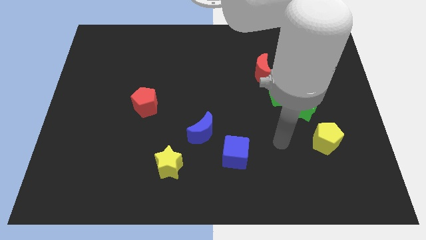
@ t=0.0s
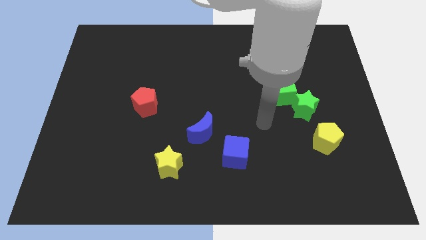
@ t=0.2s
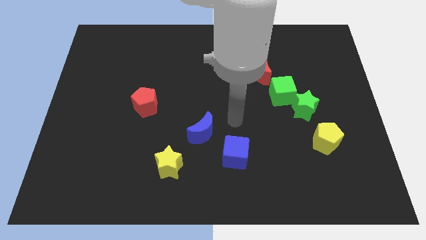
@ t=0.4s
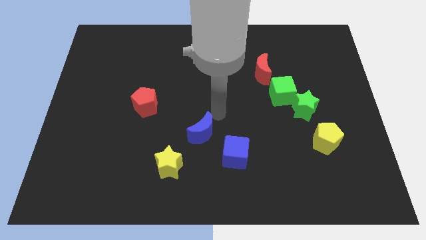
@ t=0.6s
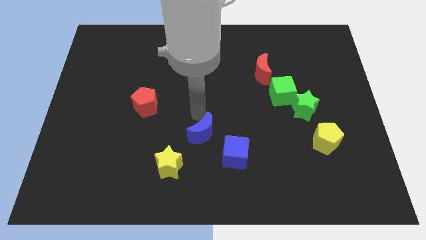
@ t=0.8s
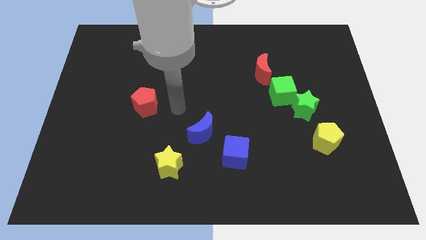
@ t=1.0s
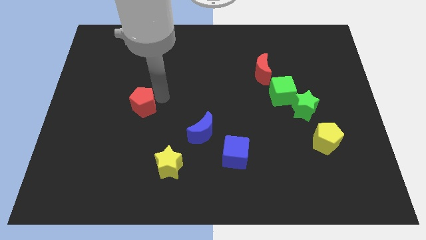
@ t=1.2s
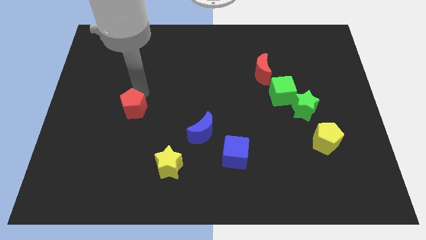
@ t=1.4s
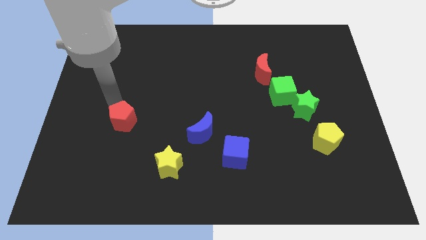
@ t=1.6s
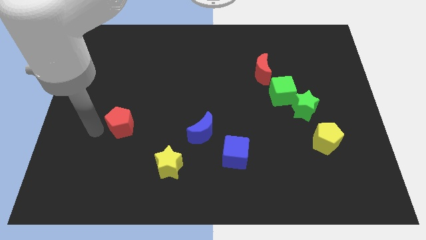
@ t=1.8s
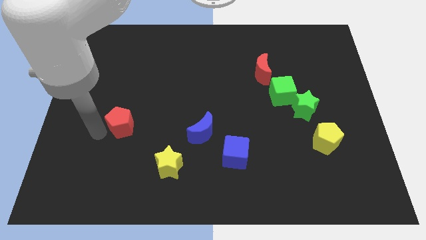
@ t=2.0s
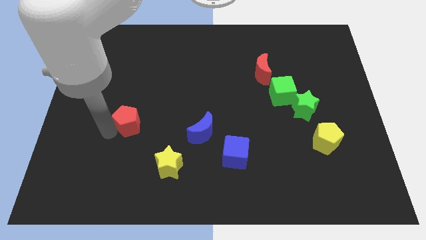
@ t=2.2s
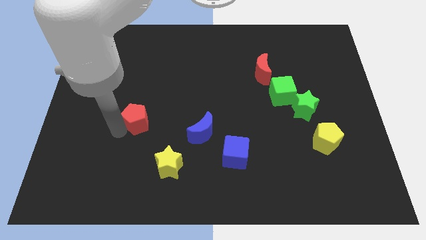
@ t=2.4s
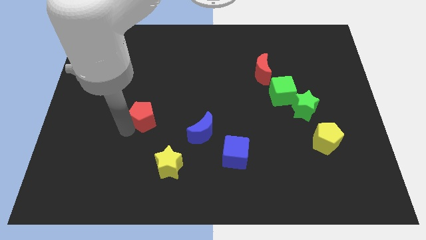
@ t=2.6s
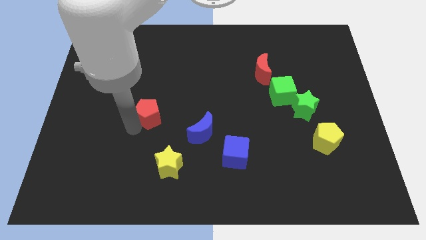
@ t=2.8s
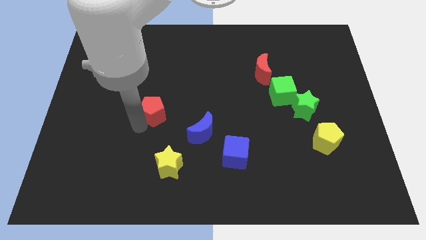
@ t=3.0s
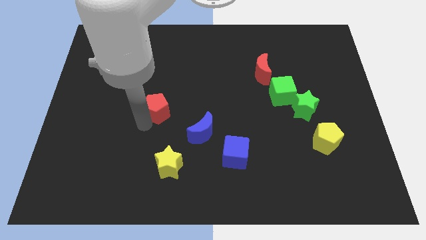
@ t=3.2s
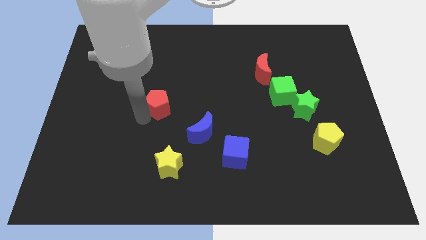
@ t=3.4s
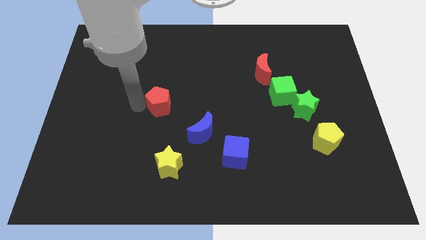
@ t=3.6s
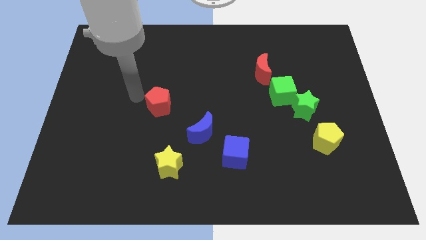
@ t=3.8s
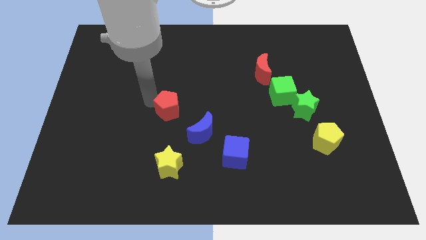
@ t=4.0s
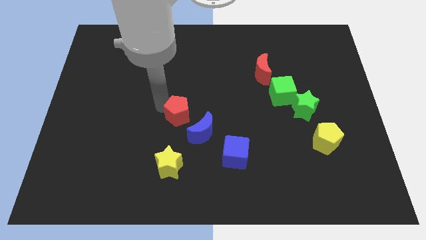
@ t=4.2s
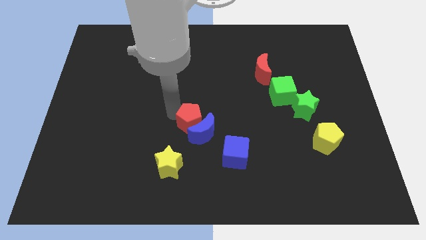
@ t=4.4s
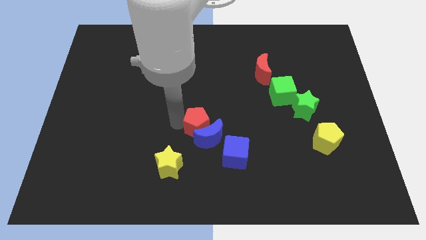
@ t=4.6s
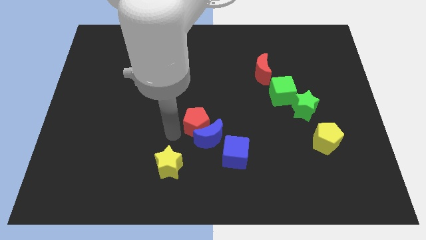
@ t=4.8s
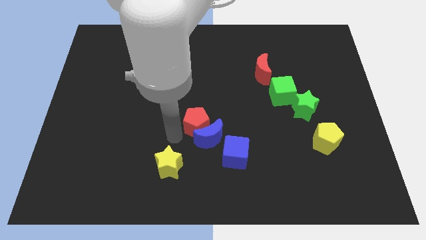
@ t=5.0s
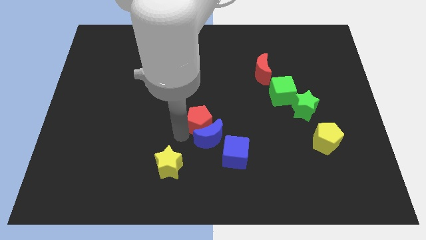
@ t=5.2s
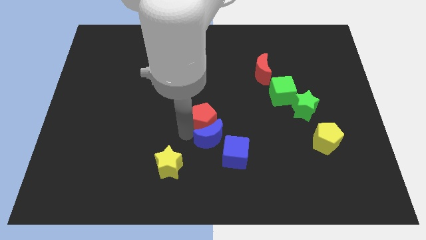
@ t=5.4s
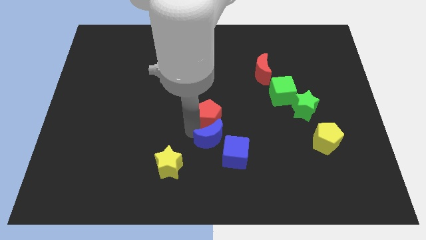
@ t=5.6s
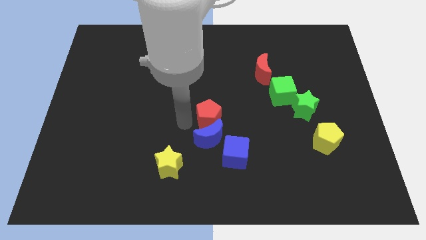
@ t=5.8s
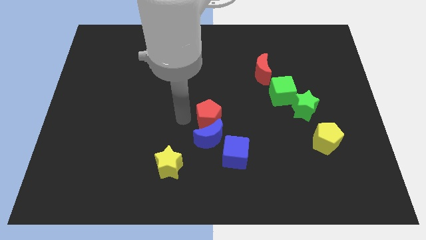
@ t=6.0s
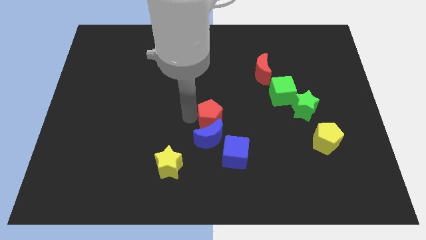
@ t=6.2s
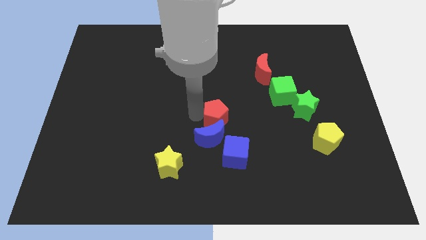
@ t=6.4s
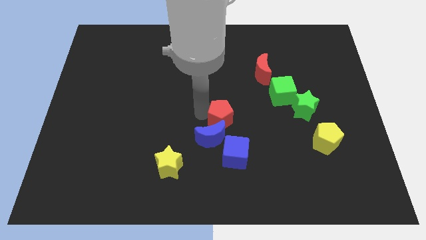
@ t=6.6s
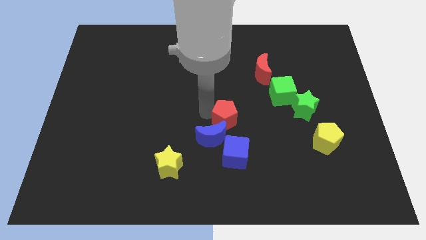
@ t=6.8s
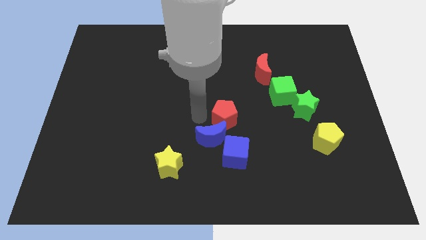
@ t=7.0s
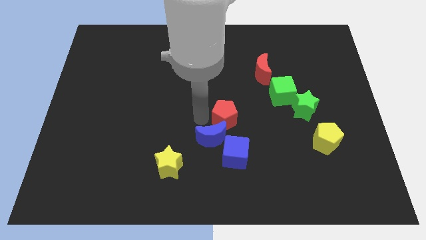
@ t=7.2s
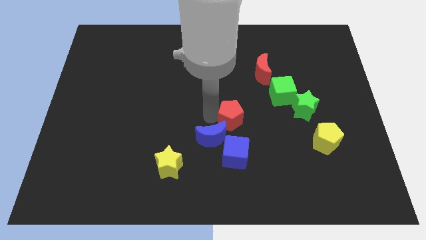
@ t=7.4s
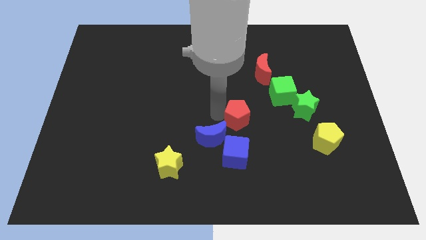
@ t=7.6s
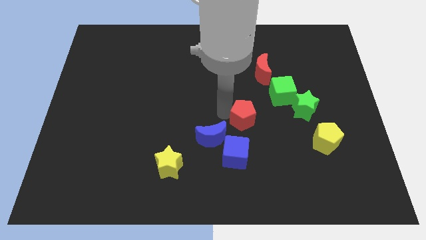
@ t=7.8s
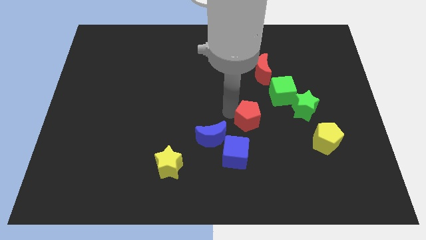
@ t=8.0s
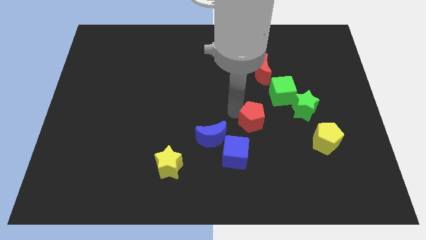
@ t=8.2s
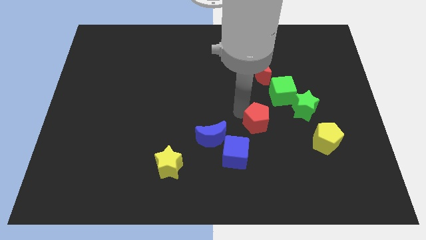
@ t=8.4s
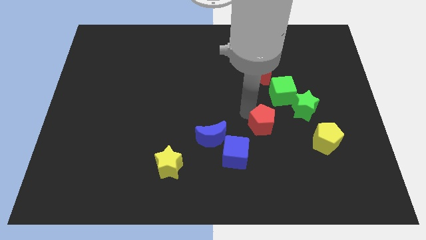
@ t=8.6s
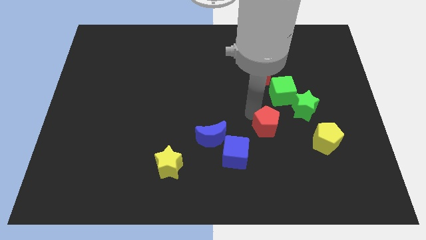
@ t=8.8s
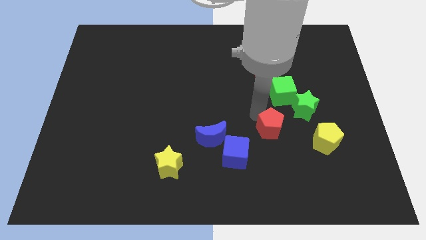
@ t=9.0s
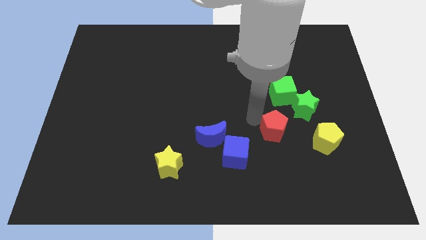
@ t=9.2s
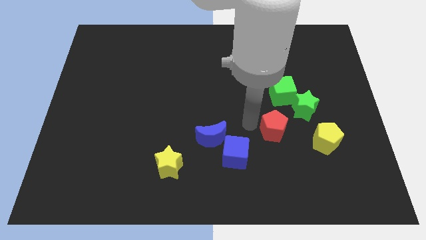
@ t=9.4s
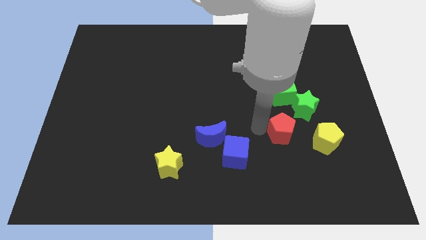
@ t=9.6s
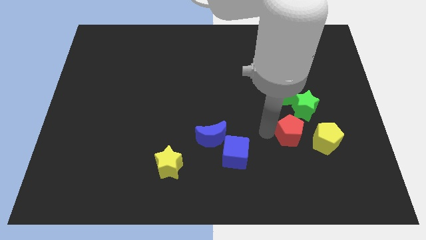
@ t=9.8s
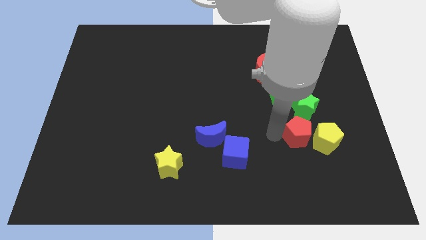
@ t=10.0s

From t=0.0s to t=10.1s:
move the red pentagon next to the yellow pentagon

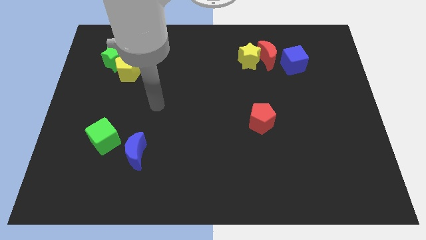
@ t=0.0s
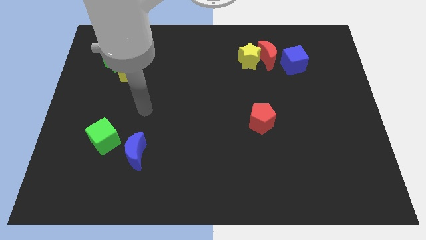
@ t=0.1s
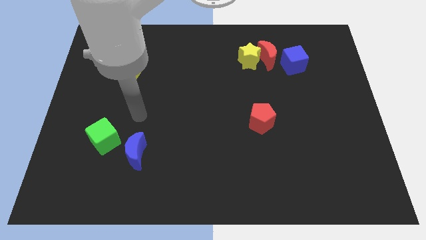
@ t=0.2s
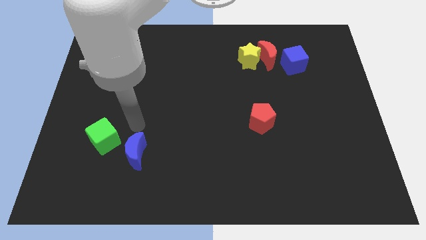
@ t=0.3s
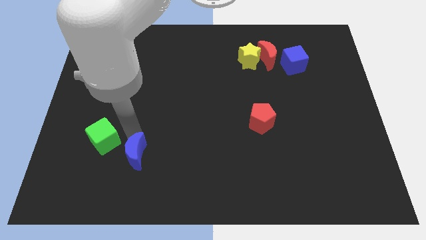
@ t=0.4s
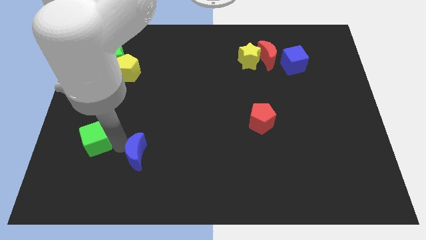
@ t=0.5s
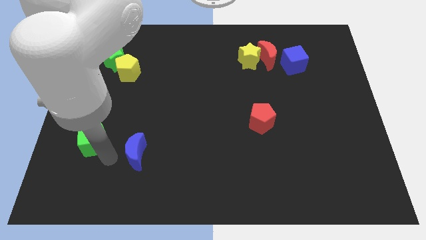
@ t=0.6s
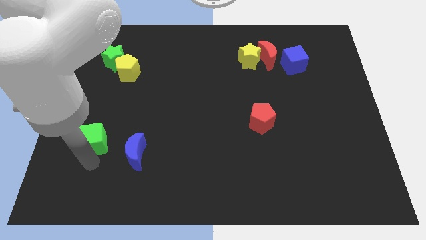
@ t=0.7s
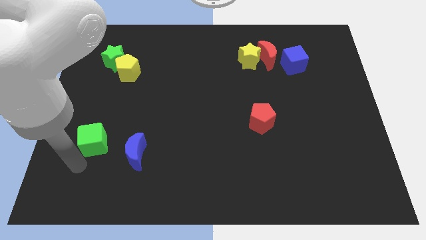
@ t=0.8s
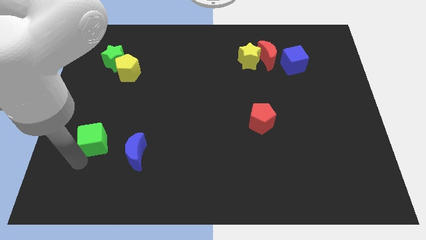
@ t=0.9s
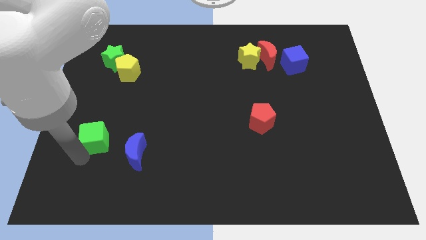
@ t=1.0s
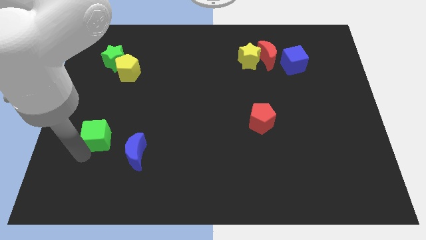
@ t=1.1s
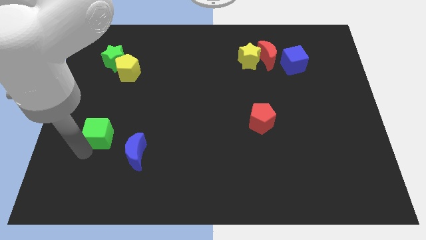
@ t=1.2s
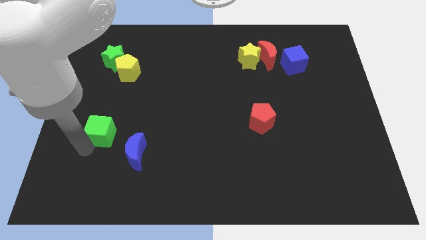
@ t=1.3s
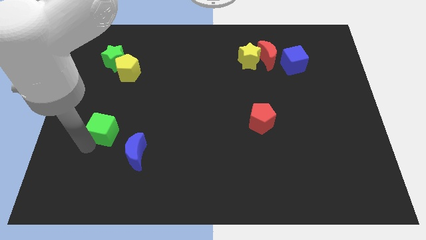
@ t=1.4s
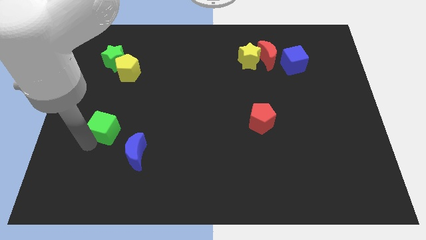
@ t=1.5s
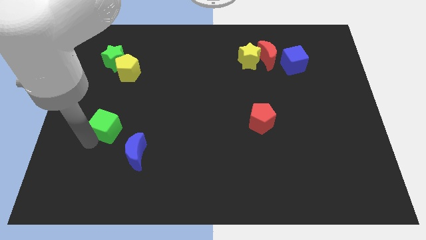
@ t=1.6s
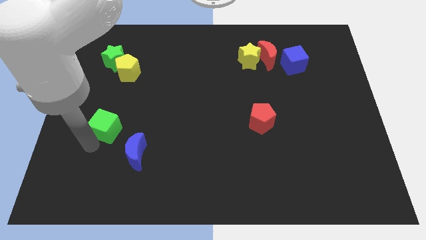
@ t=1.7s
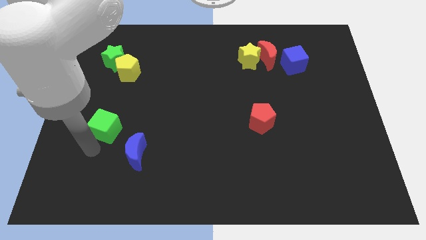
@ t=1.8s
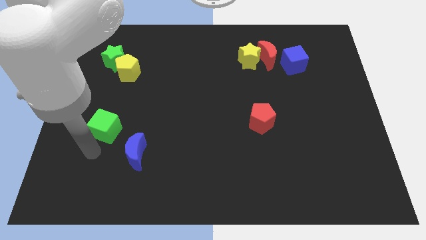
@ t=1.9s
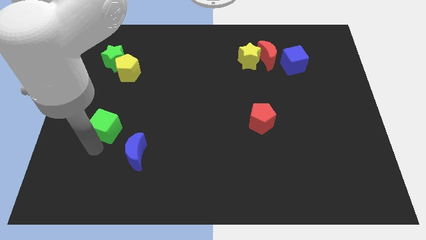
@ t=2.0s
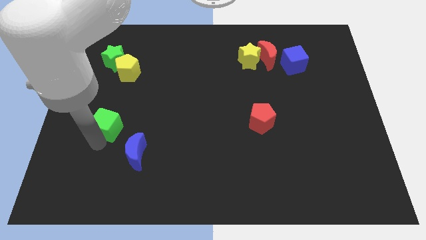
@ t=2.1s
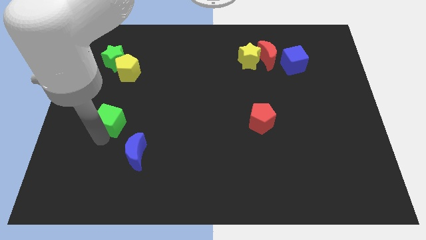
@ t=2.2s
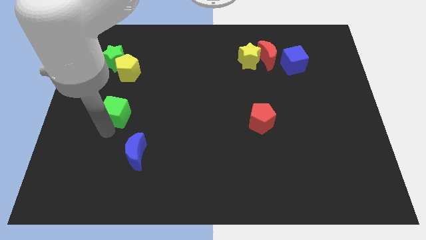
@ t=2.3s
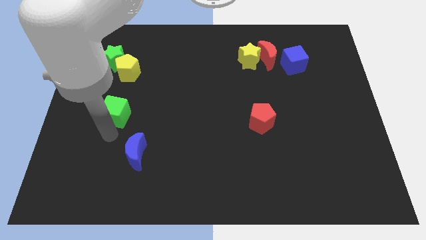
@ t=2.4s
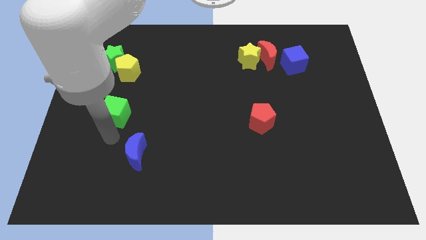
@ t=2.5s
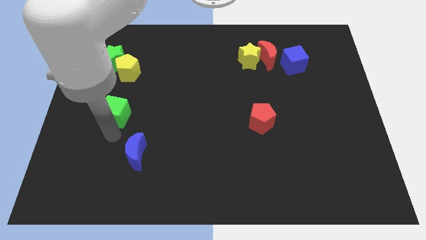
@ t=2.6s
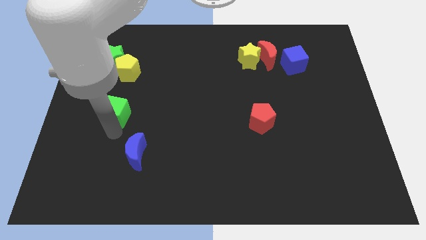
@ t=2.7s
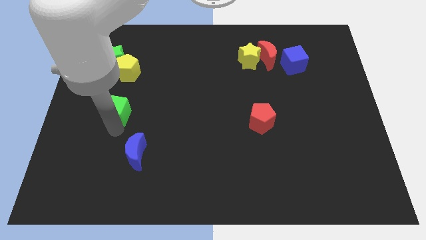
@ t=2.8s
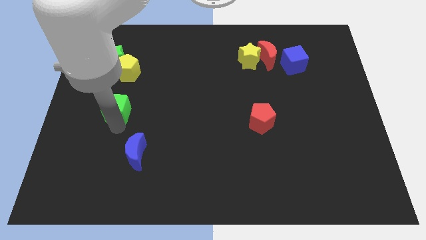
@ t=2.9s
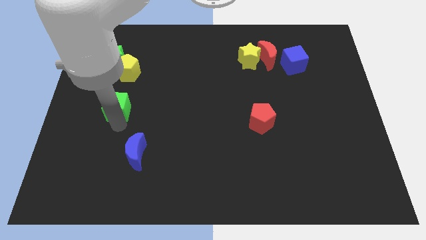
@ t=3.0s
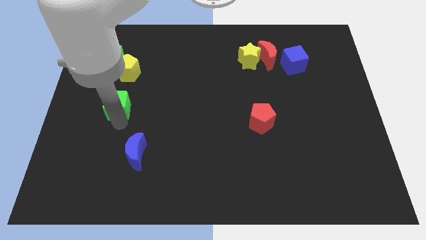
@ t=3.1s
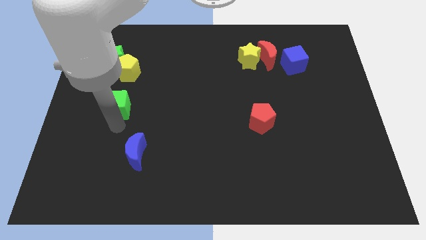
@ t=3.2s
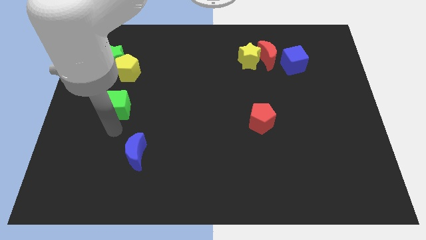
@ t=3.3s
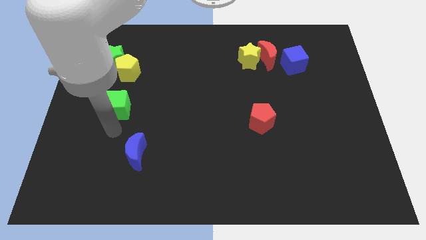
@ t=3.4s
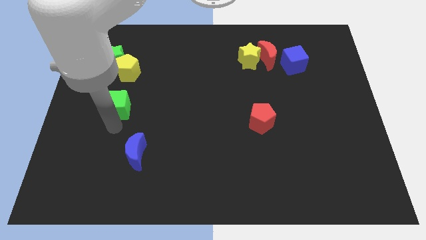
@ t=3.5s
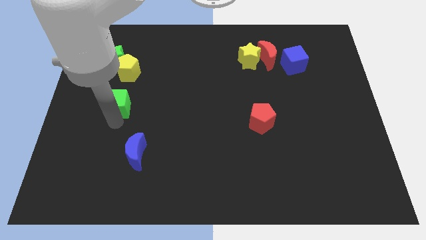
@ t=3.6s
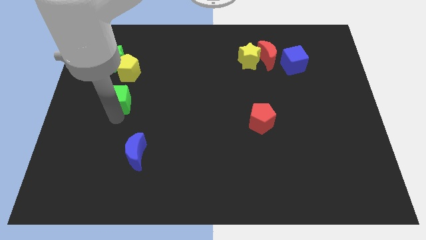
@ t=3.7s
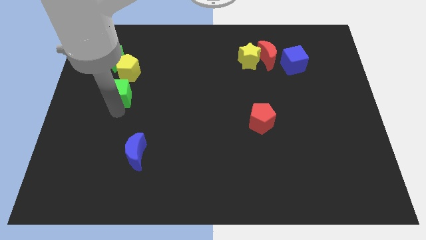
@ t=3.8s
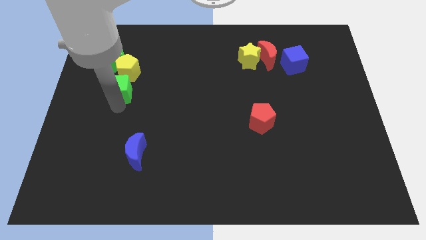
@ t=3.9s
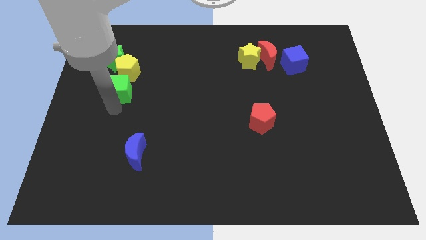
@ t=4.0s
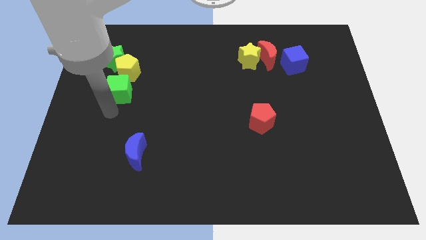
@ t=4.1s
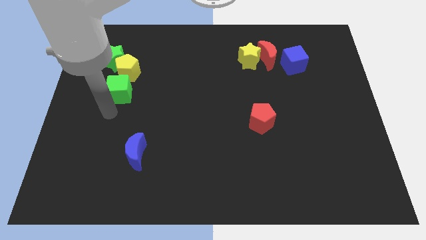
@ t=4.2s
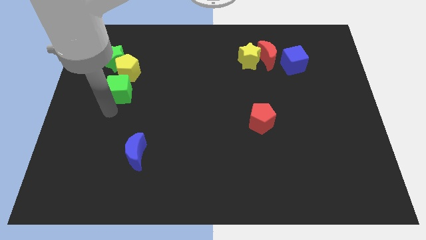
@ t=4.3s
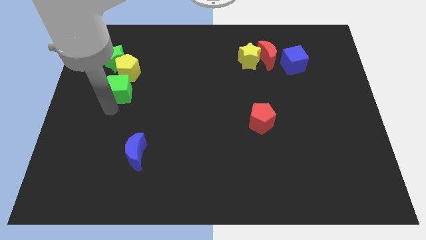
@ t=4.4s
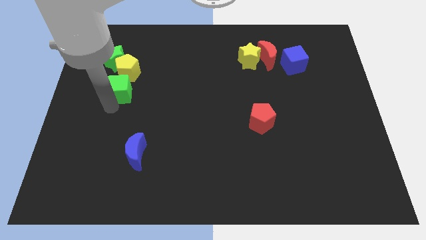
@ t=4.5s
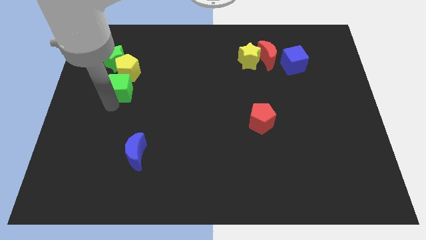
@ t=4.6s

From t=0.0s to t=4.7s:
put the green cube towards the yellow pentagon
